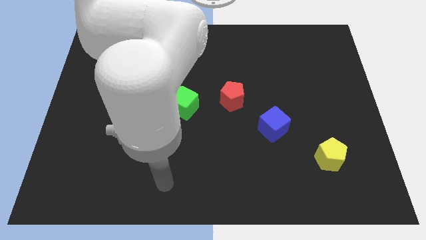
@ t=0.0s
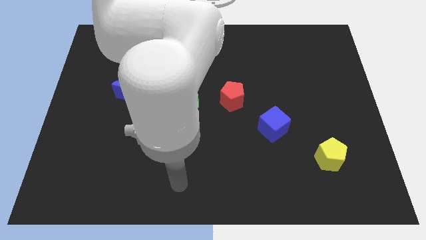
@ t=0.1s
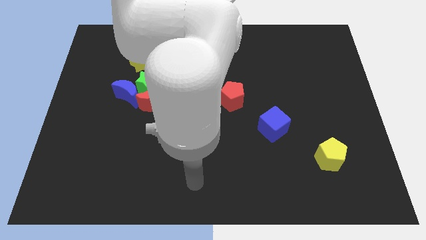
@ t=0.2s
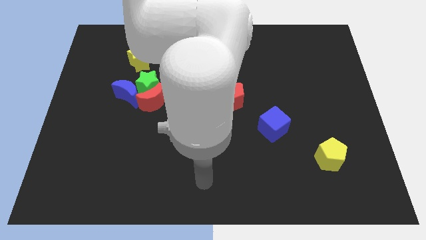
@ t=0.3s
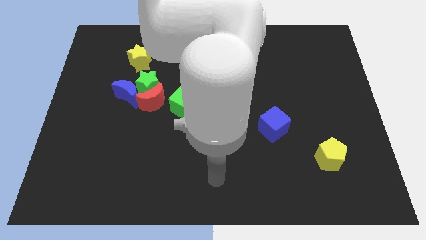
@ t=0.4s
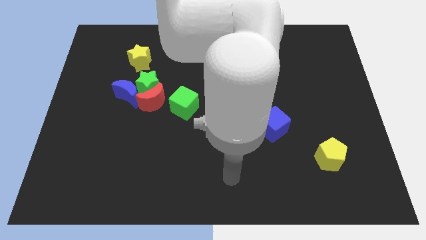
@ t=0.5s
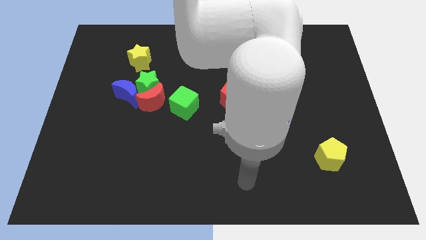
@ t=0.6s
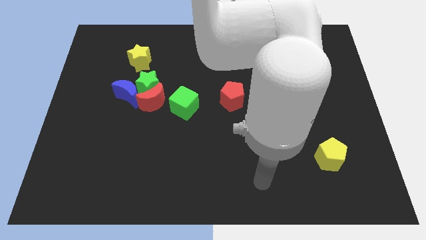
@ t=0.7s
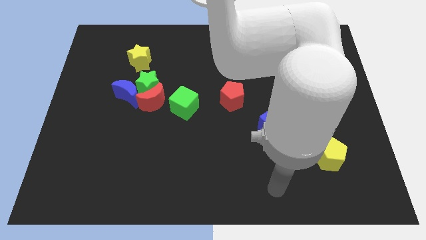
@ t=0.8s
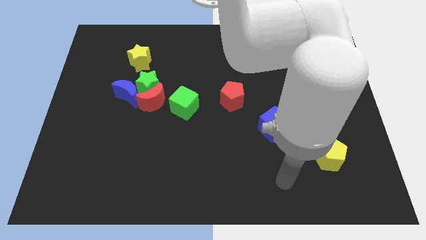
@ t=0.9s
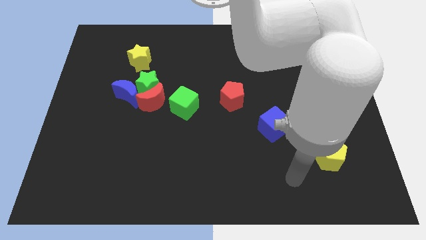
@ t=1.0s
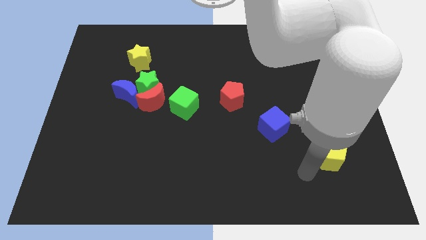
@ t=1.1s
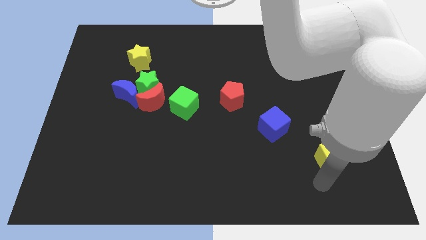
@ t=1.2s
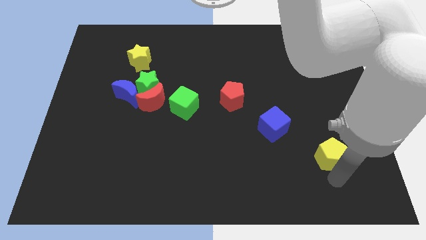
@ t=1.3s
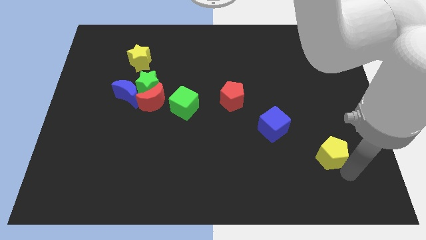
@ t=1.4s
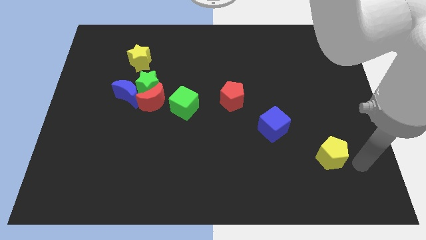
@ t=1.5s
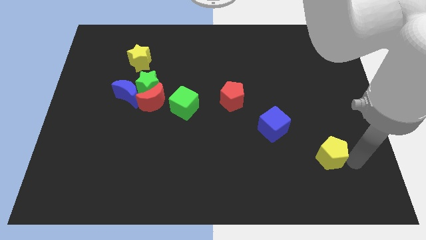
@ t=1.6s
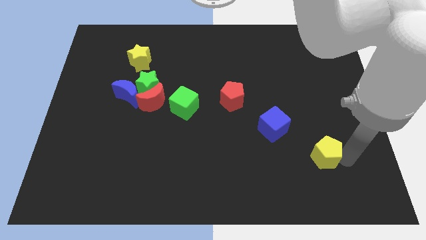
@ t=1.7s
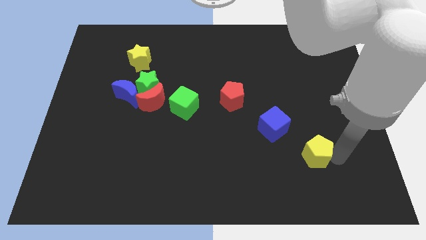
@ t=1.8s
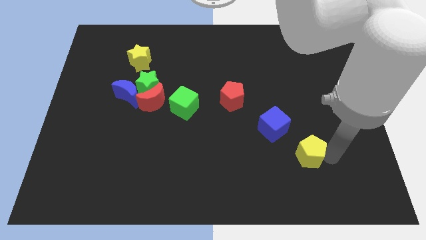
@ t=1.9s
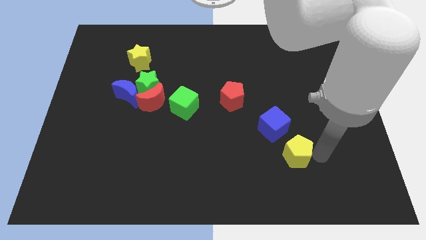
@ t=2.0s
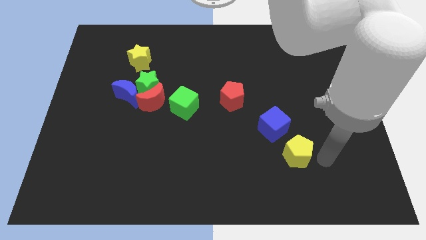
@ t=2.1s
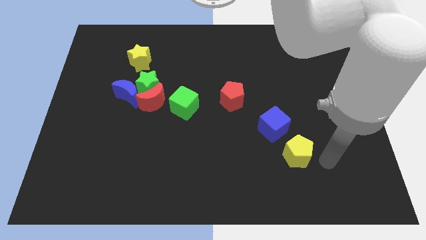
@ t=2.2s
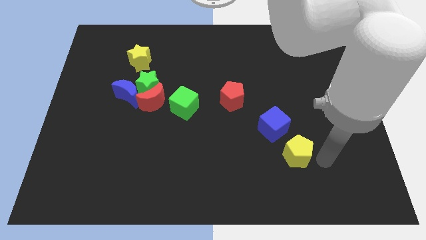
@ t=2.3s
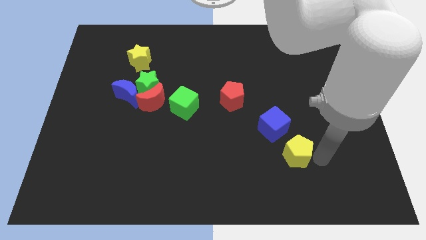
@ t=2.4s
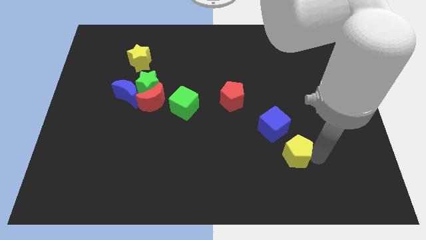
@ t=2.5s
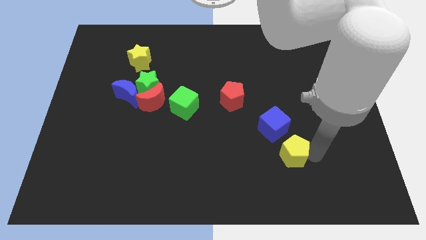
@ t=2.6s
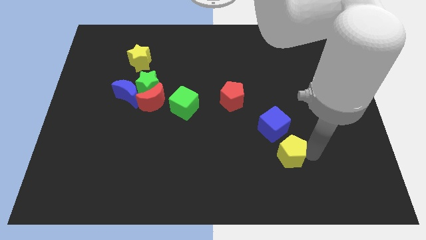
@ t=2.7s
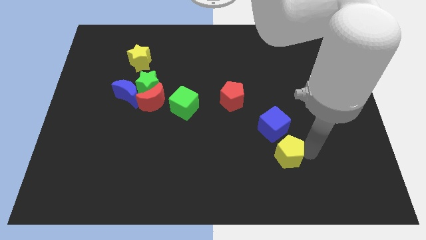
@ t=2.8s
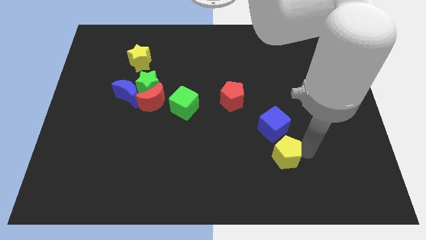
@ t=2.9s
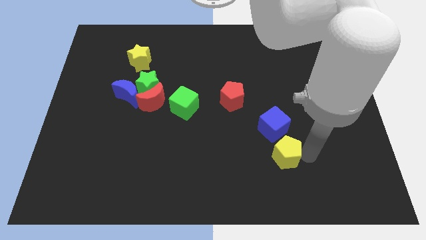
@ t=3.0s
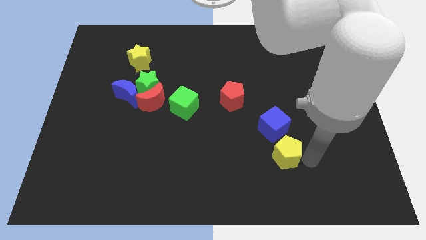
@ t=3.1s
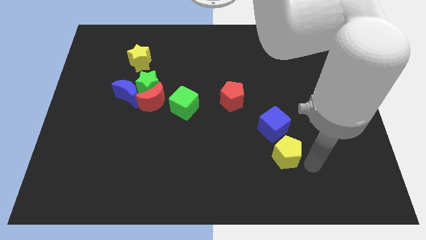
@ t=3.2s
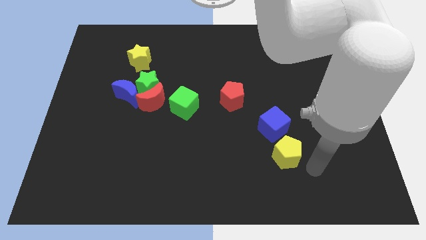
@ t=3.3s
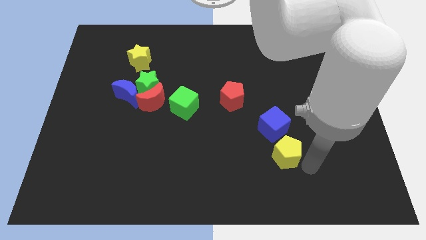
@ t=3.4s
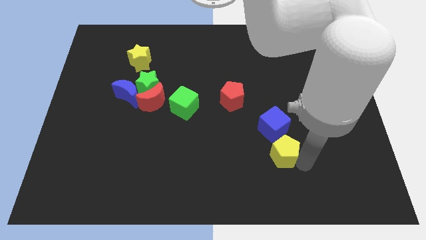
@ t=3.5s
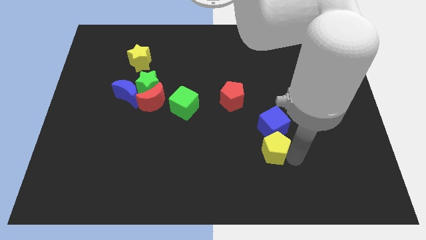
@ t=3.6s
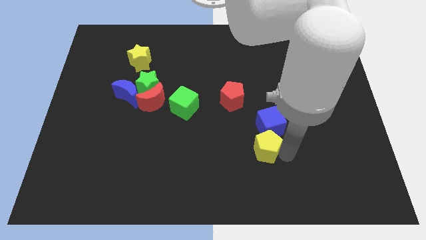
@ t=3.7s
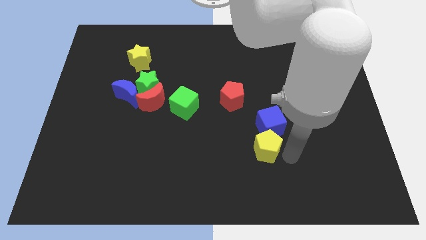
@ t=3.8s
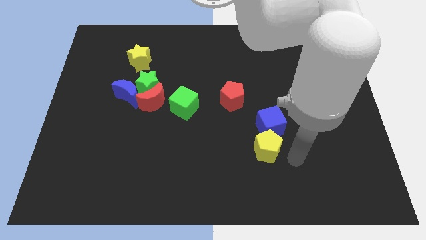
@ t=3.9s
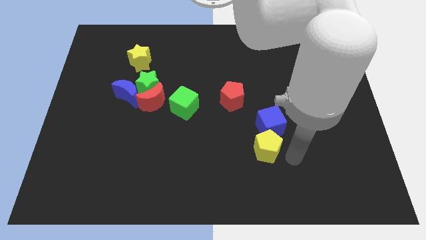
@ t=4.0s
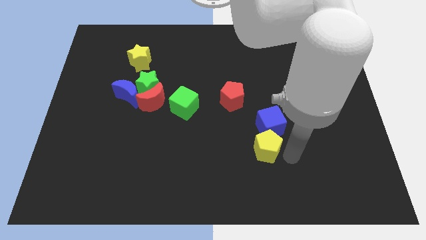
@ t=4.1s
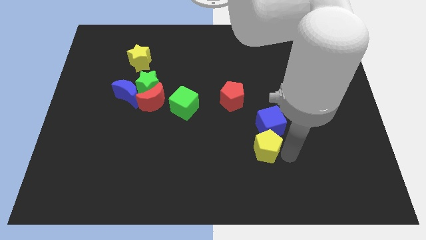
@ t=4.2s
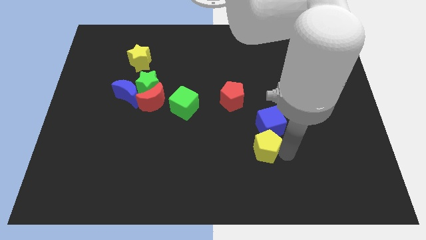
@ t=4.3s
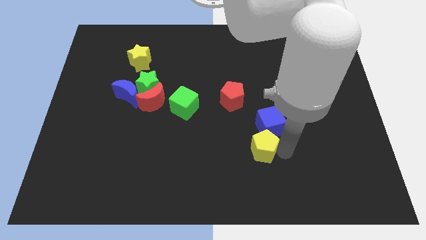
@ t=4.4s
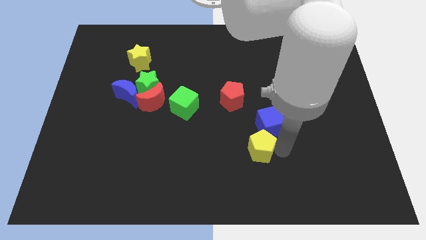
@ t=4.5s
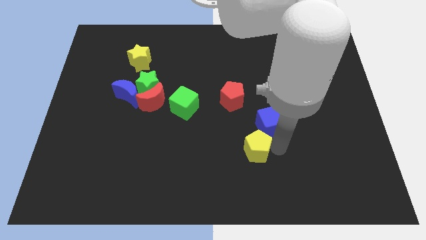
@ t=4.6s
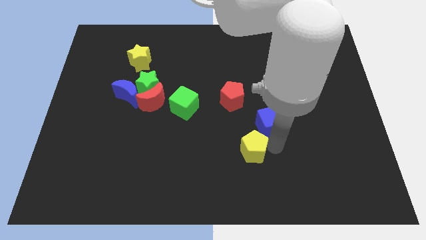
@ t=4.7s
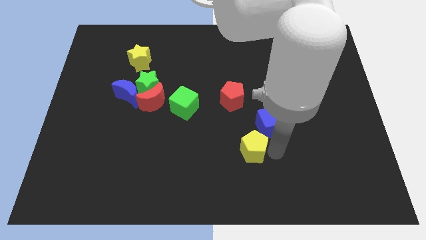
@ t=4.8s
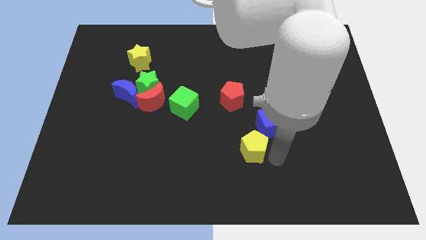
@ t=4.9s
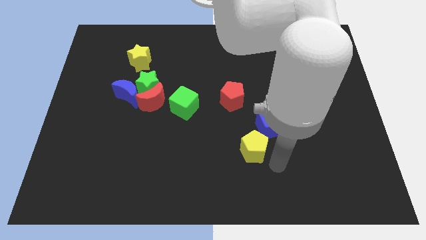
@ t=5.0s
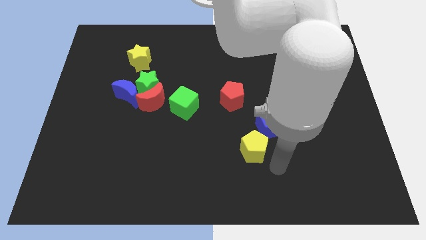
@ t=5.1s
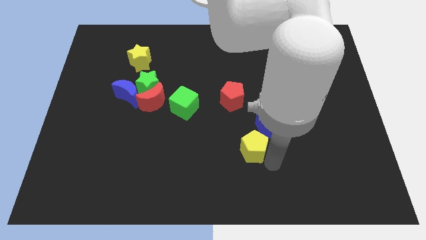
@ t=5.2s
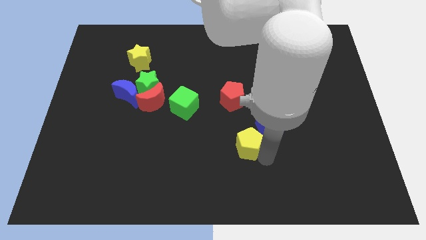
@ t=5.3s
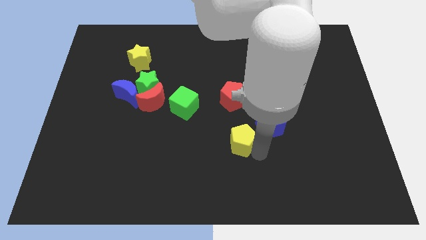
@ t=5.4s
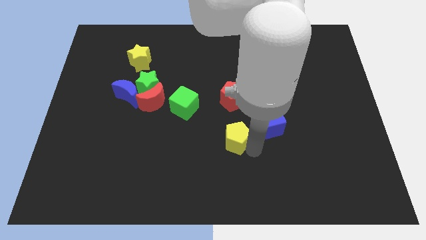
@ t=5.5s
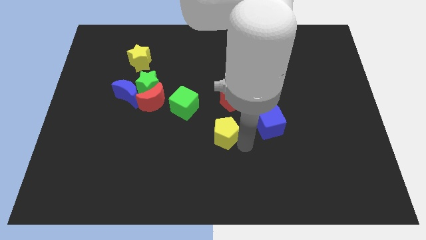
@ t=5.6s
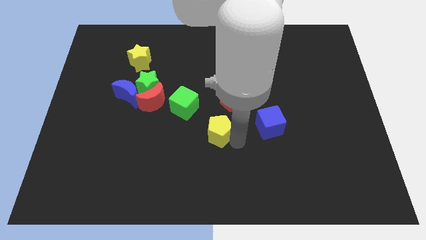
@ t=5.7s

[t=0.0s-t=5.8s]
move the yellow pentagon diagonally down and to the left of the red pentagon

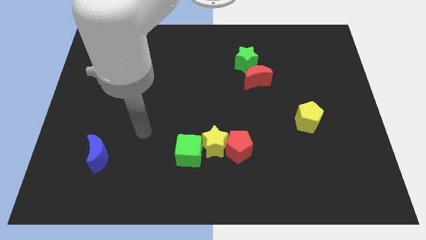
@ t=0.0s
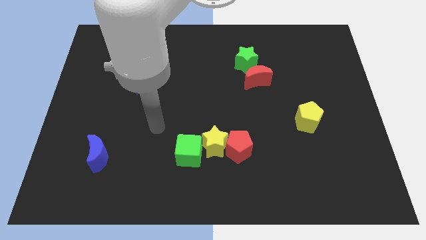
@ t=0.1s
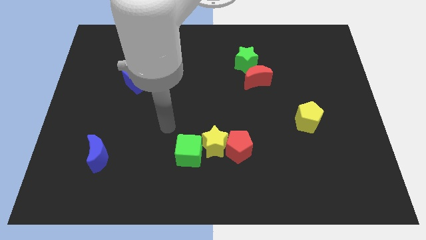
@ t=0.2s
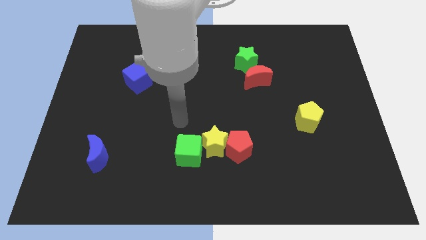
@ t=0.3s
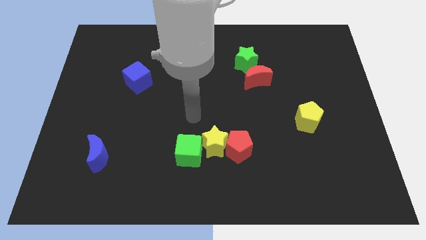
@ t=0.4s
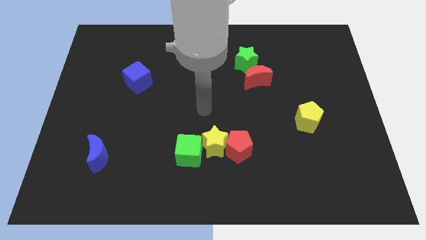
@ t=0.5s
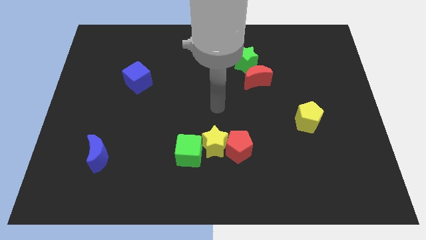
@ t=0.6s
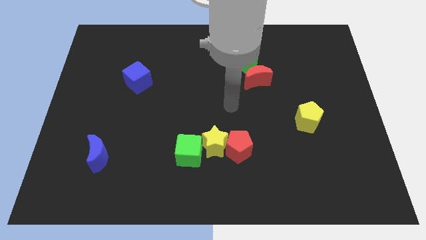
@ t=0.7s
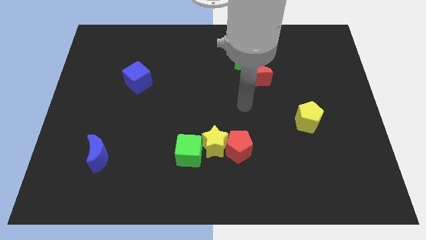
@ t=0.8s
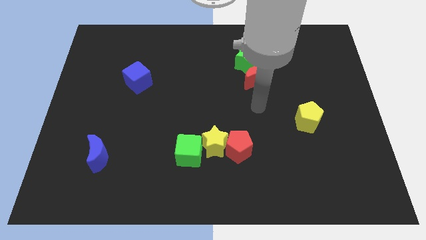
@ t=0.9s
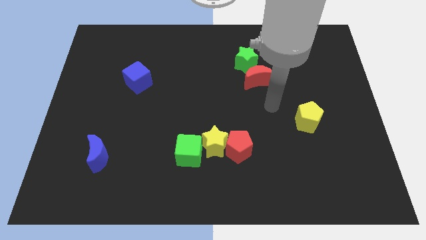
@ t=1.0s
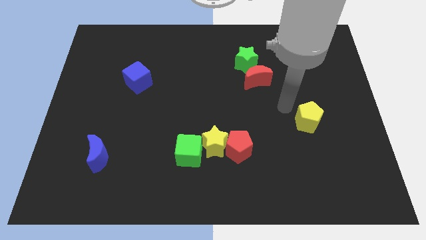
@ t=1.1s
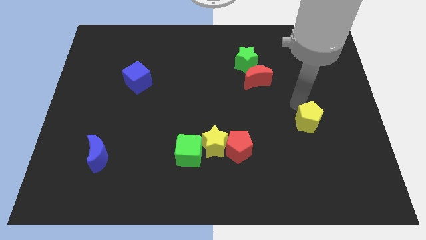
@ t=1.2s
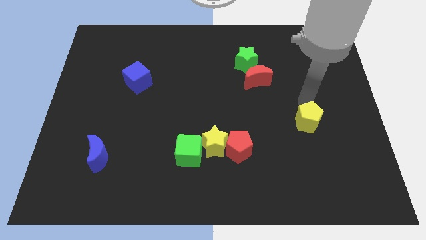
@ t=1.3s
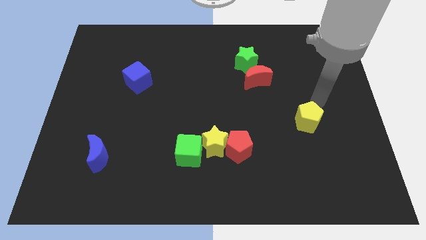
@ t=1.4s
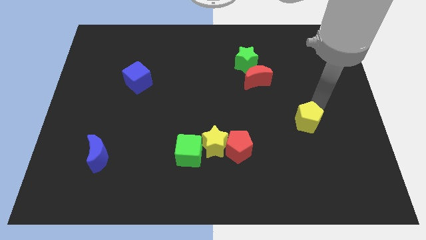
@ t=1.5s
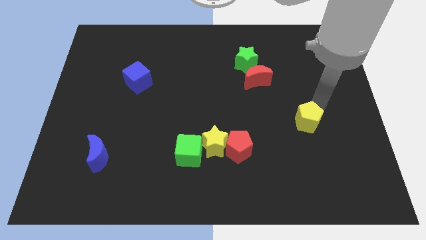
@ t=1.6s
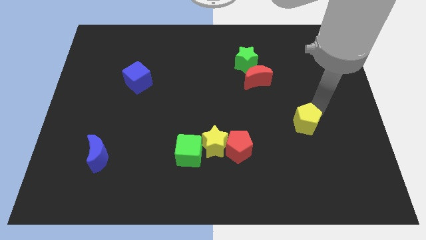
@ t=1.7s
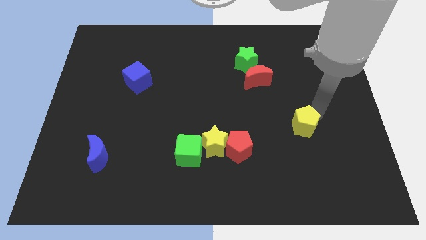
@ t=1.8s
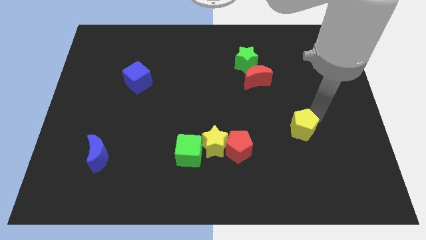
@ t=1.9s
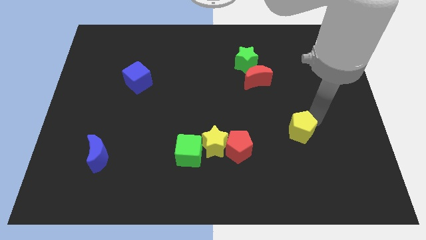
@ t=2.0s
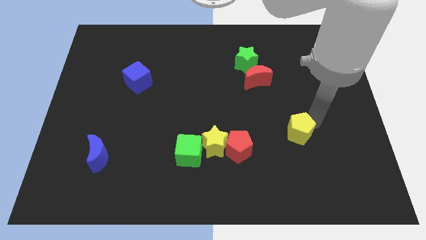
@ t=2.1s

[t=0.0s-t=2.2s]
move the yellow pentagon to the right of the red pentagon
